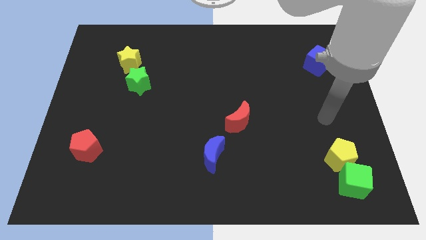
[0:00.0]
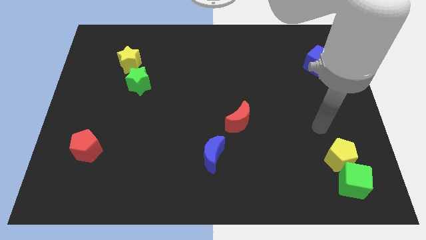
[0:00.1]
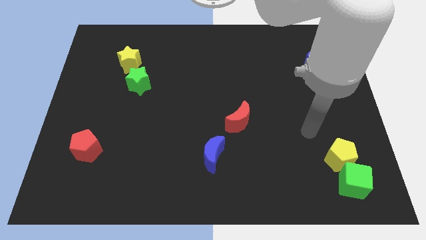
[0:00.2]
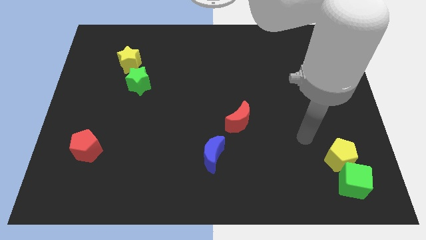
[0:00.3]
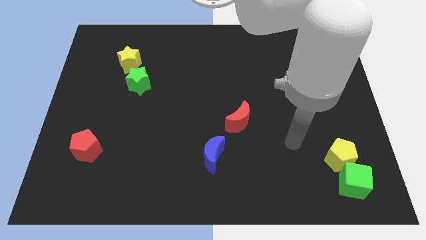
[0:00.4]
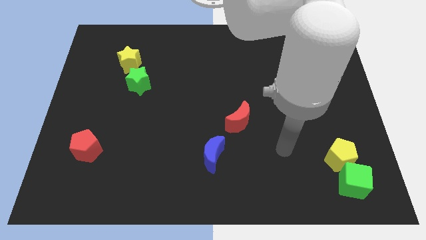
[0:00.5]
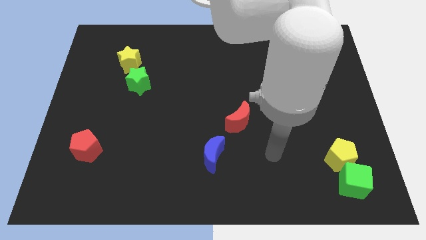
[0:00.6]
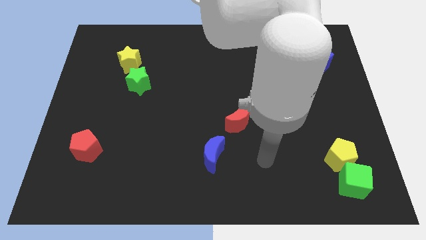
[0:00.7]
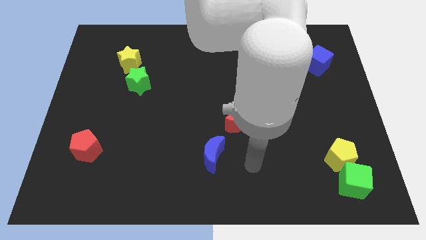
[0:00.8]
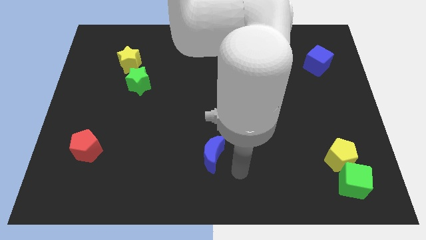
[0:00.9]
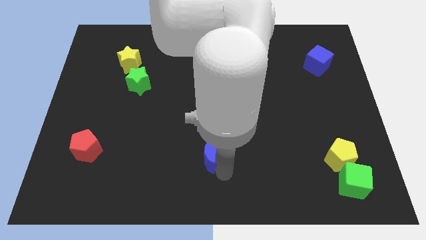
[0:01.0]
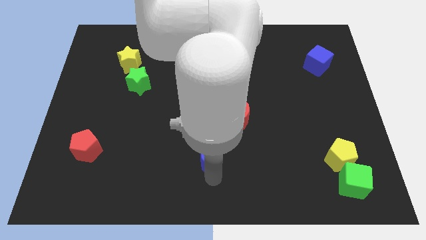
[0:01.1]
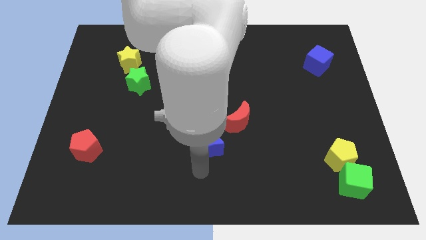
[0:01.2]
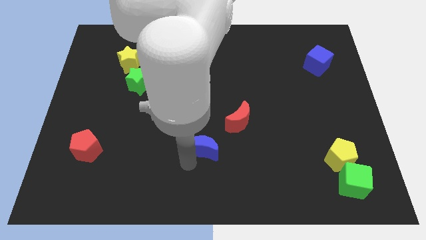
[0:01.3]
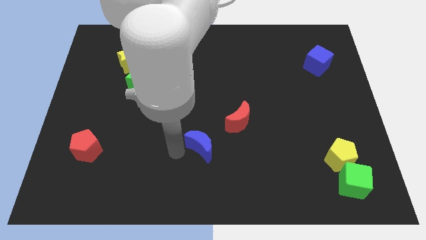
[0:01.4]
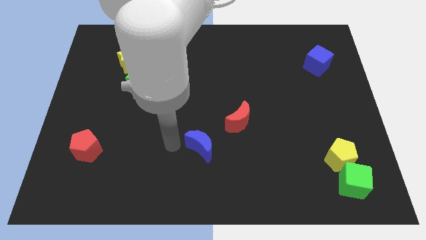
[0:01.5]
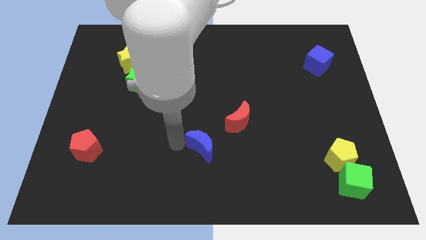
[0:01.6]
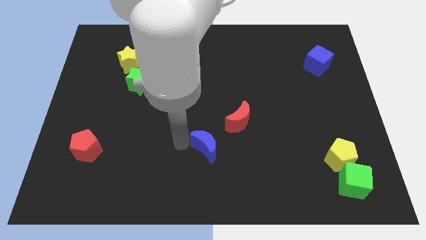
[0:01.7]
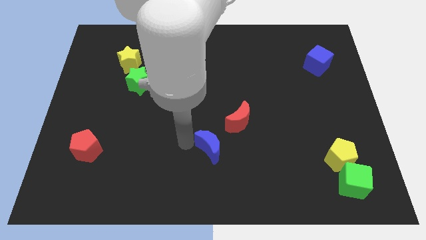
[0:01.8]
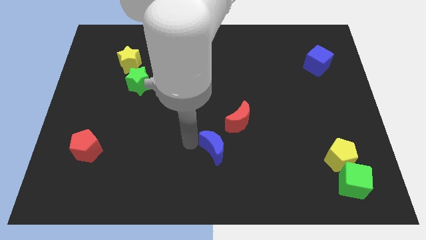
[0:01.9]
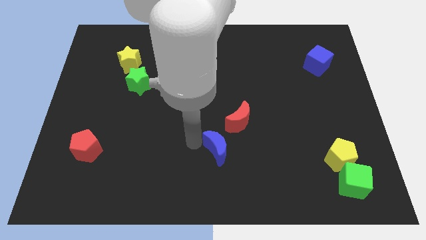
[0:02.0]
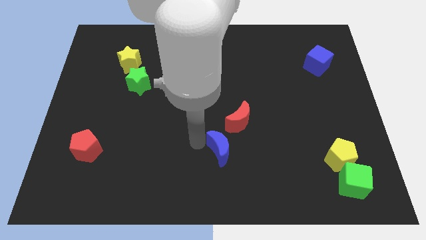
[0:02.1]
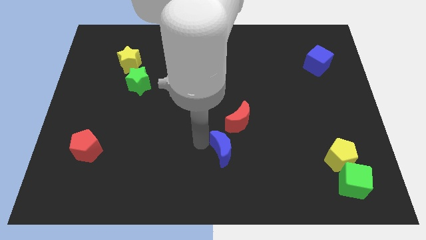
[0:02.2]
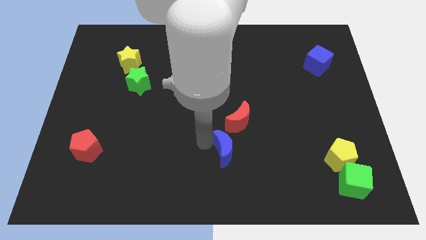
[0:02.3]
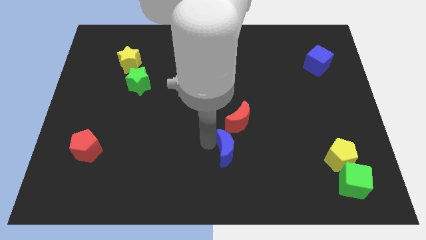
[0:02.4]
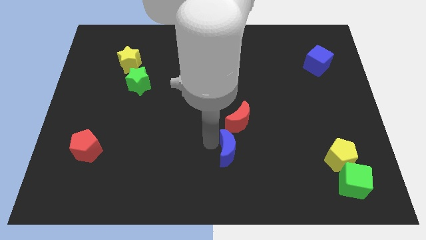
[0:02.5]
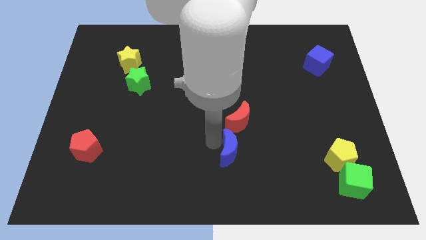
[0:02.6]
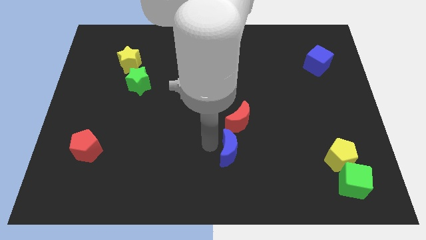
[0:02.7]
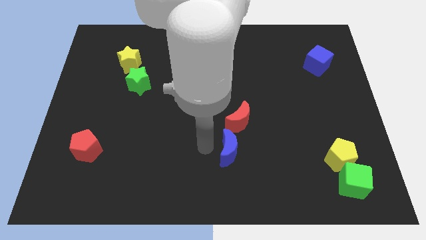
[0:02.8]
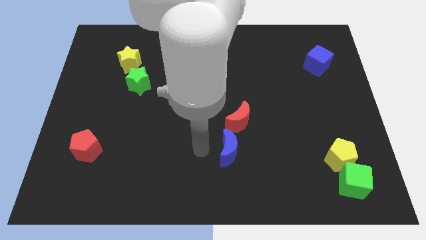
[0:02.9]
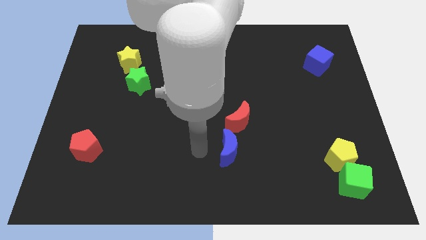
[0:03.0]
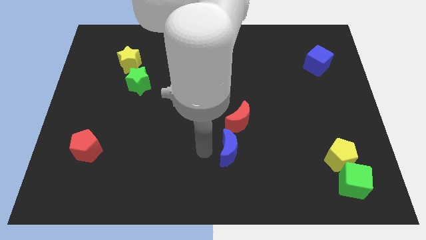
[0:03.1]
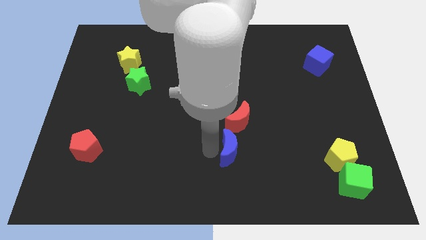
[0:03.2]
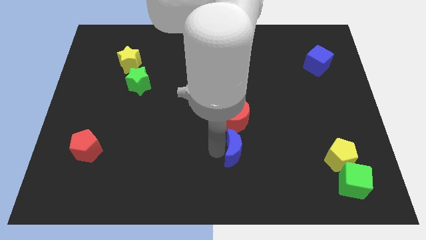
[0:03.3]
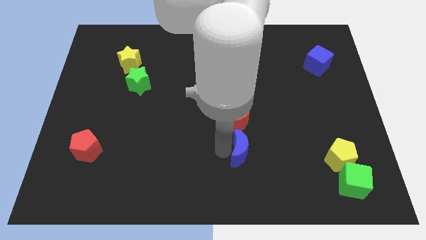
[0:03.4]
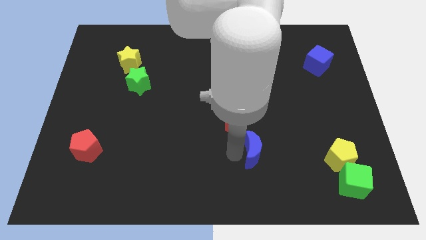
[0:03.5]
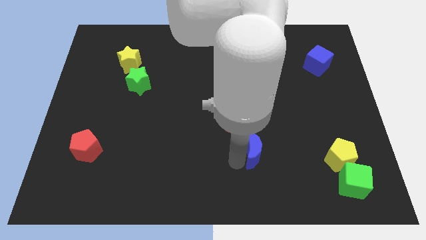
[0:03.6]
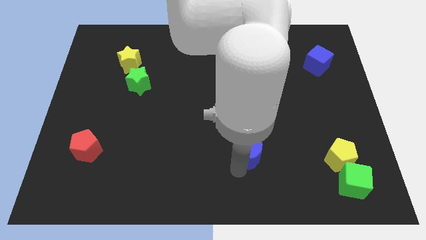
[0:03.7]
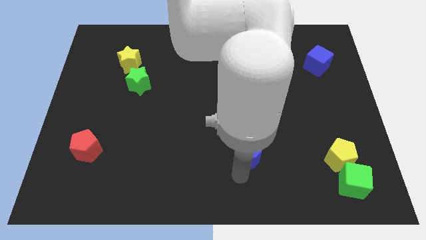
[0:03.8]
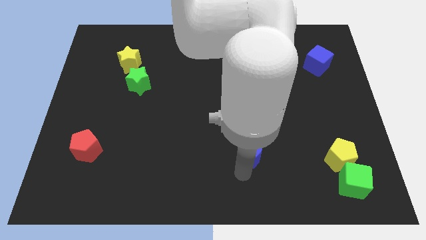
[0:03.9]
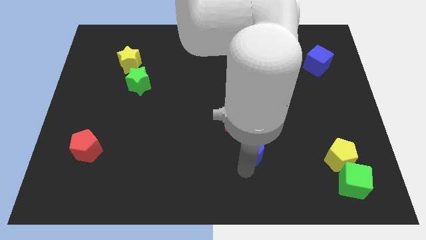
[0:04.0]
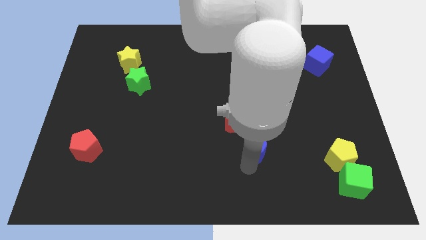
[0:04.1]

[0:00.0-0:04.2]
move the blue moon upwards and then right a little

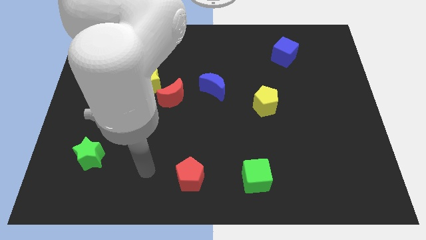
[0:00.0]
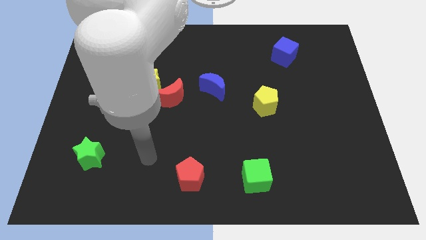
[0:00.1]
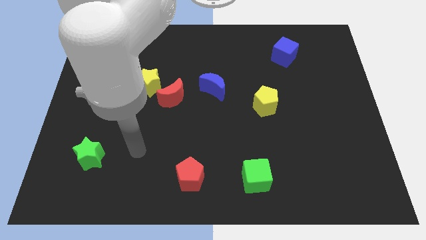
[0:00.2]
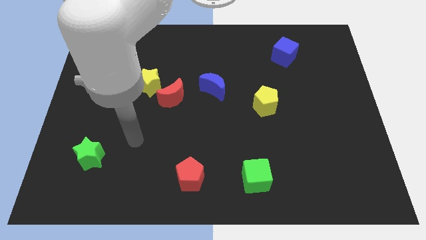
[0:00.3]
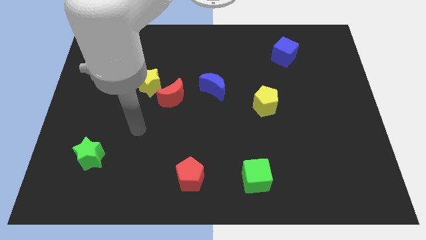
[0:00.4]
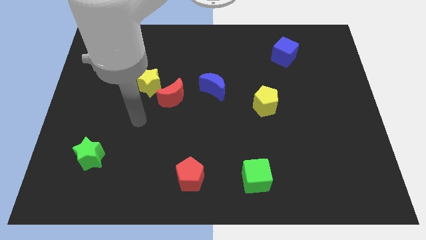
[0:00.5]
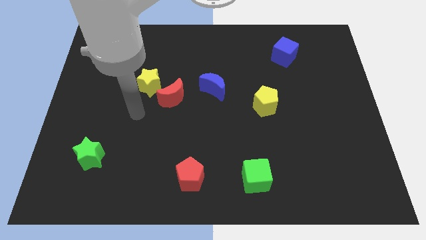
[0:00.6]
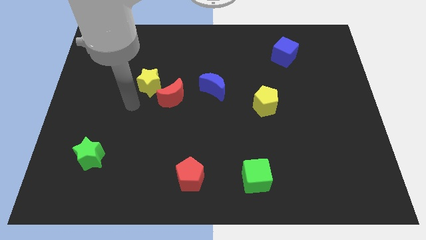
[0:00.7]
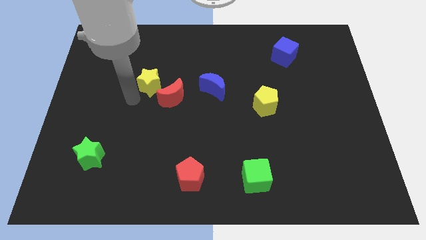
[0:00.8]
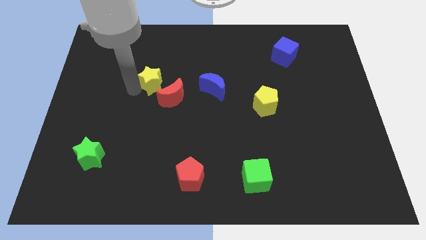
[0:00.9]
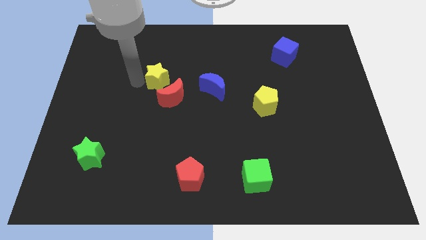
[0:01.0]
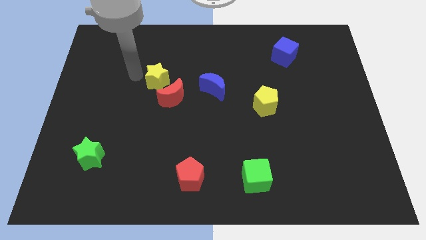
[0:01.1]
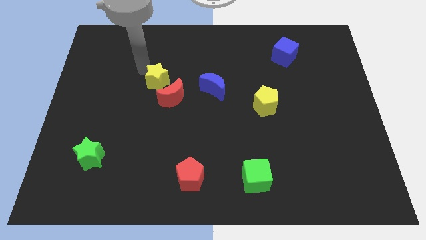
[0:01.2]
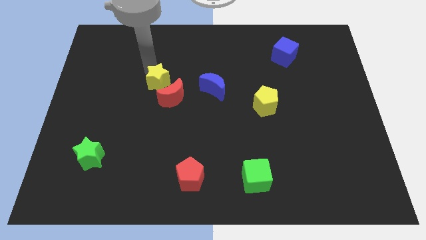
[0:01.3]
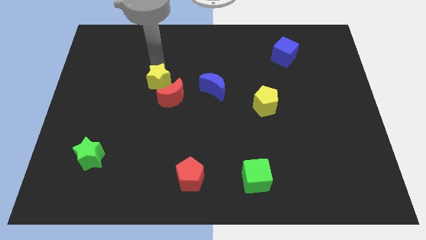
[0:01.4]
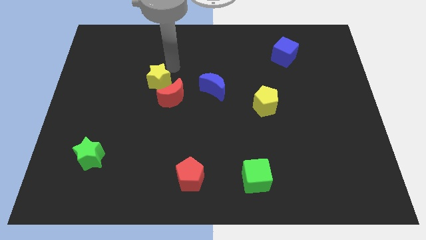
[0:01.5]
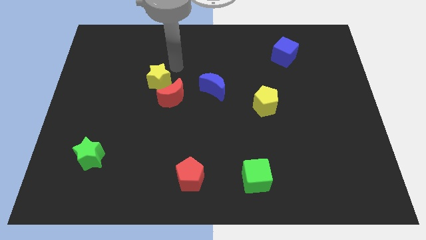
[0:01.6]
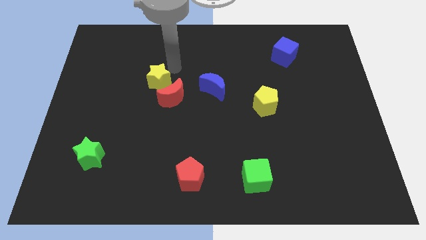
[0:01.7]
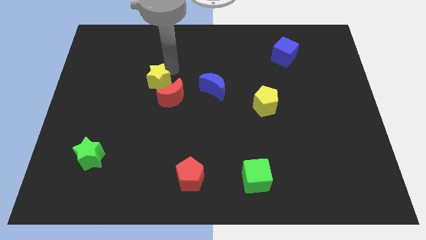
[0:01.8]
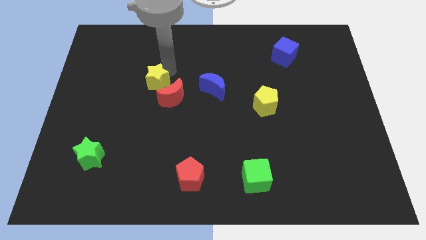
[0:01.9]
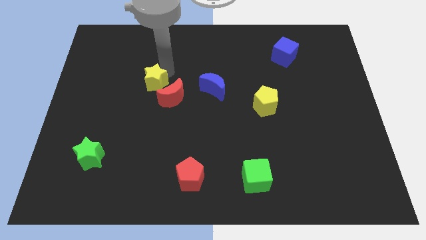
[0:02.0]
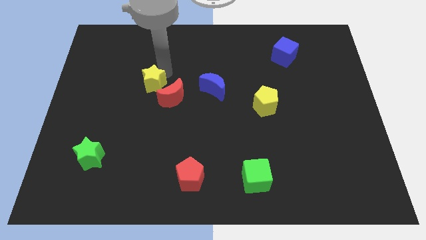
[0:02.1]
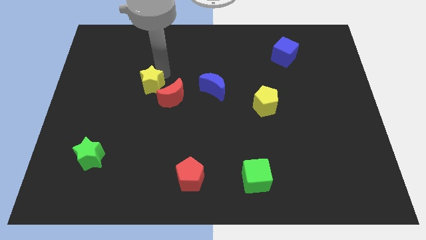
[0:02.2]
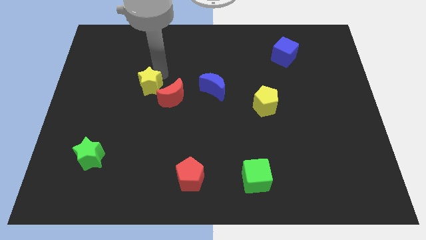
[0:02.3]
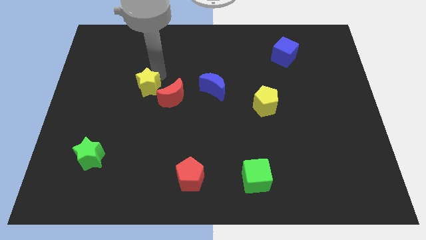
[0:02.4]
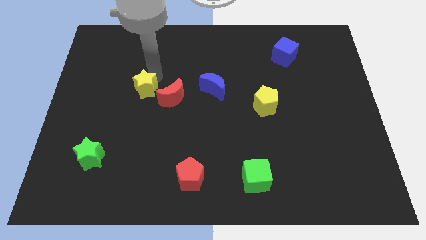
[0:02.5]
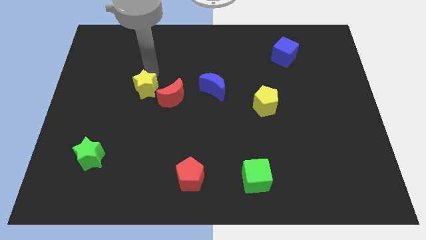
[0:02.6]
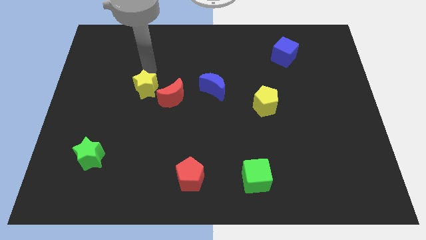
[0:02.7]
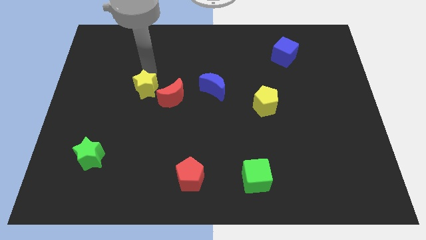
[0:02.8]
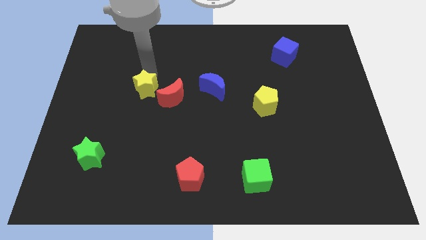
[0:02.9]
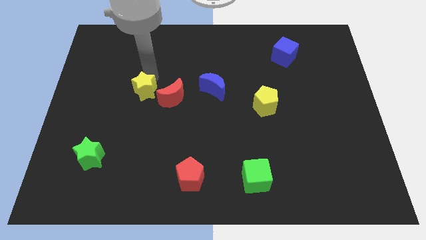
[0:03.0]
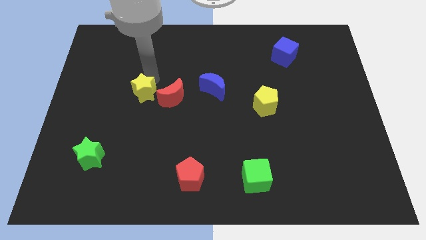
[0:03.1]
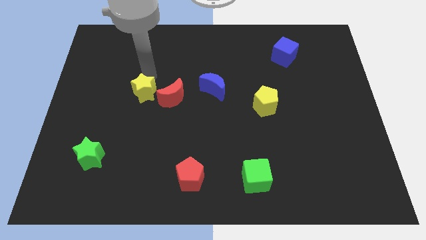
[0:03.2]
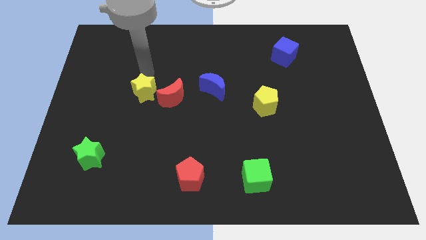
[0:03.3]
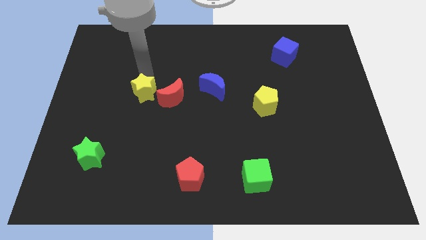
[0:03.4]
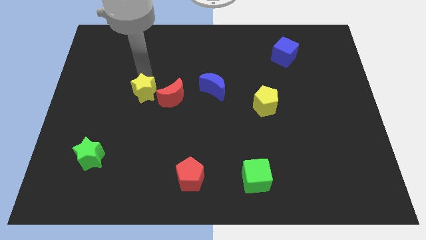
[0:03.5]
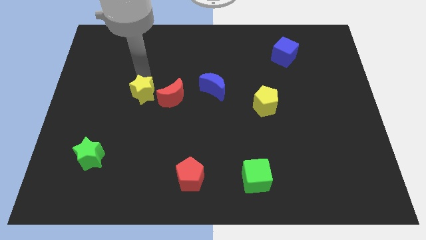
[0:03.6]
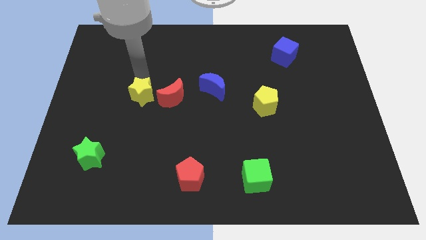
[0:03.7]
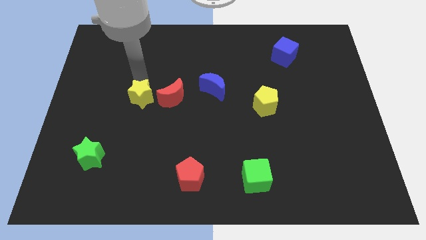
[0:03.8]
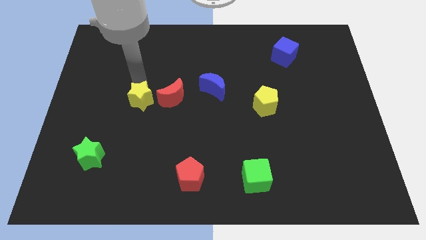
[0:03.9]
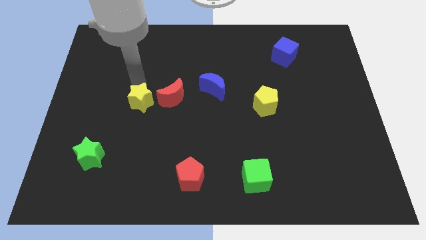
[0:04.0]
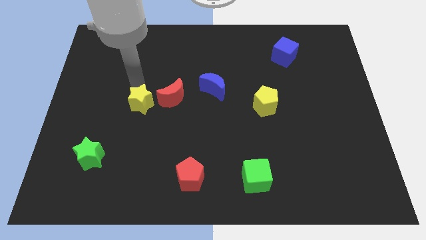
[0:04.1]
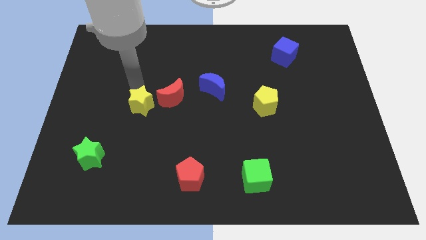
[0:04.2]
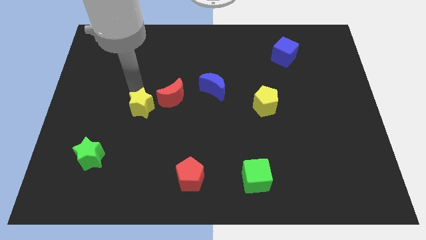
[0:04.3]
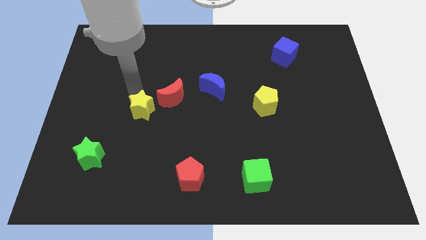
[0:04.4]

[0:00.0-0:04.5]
slightly slide the yellow star downwards
